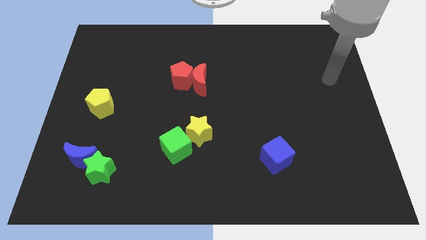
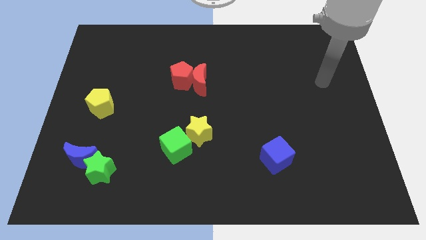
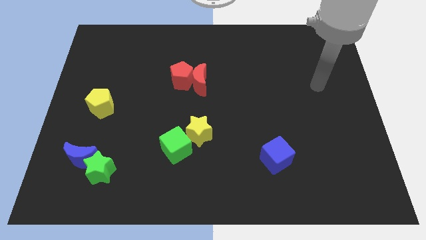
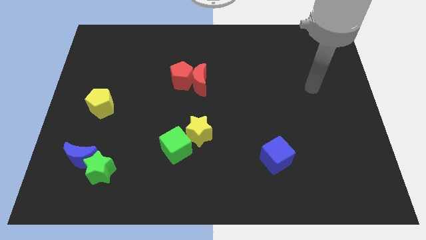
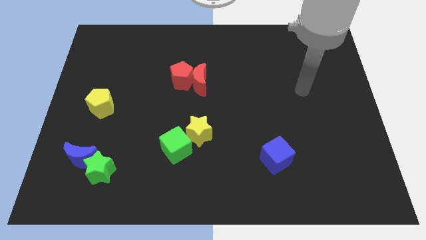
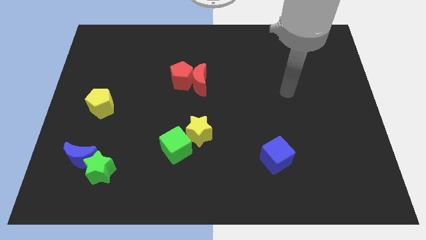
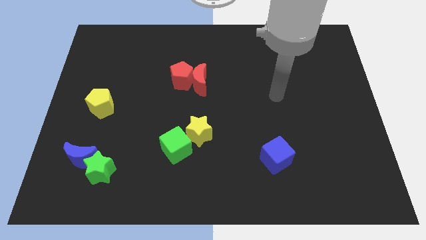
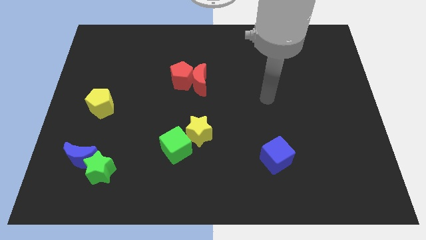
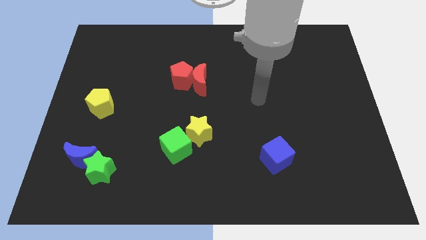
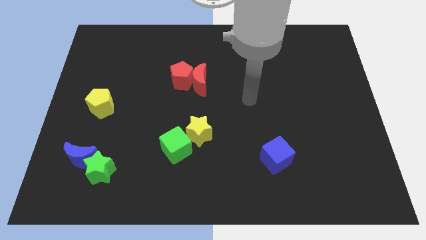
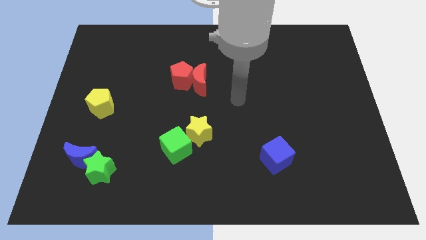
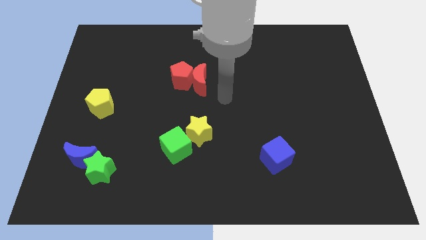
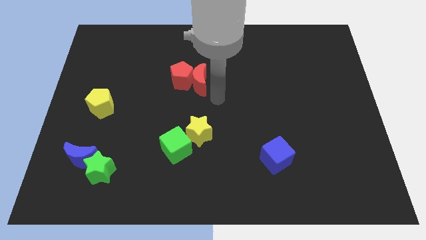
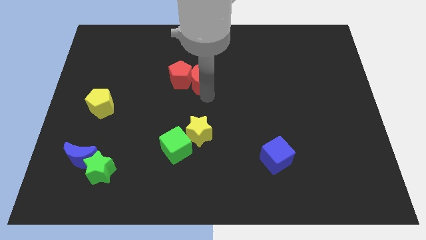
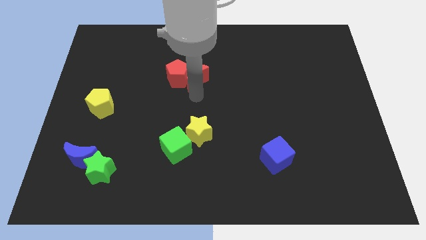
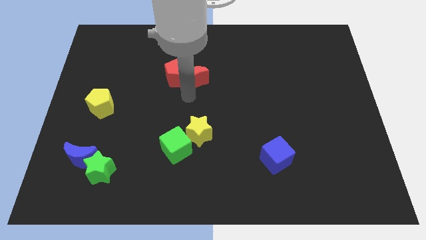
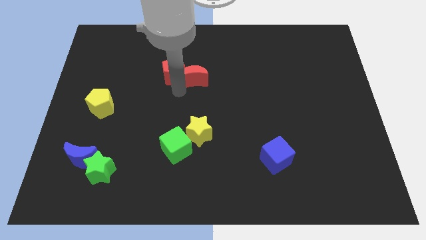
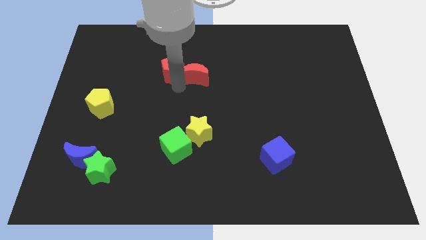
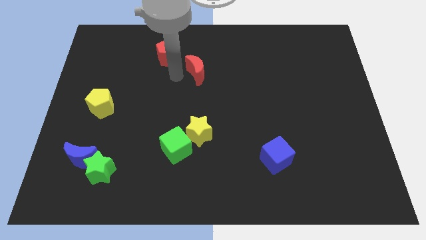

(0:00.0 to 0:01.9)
pull the red moon apart from the red pentagon

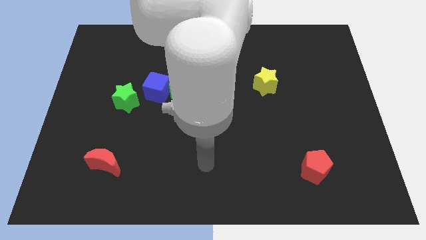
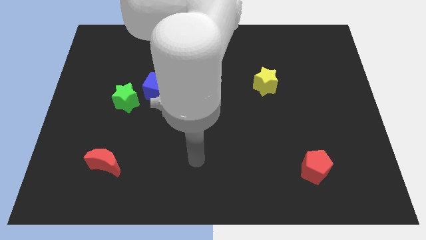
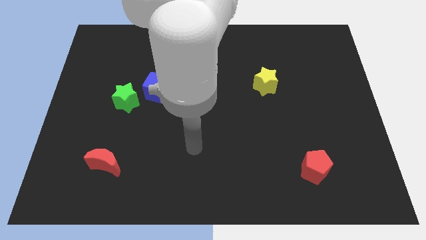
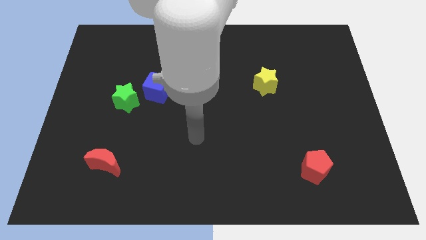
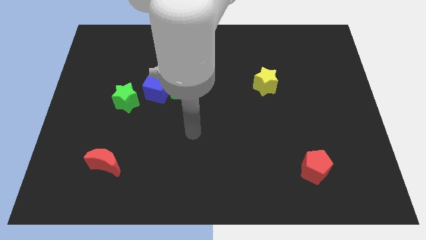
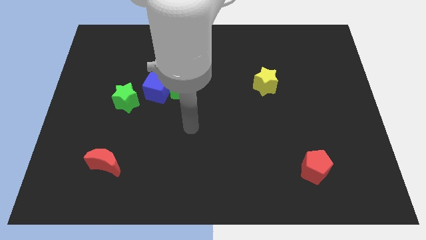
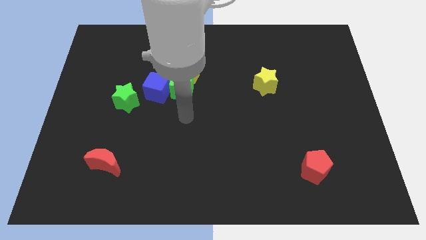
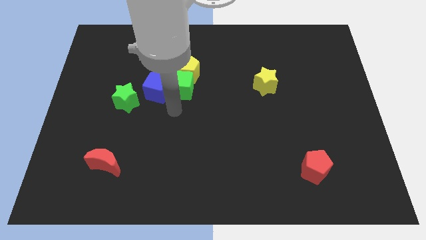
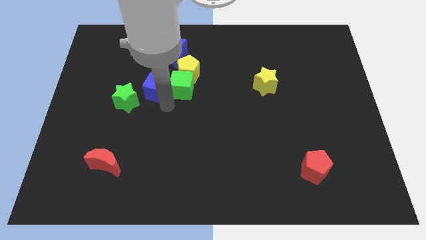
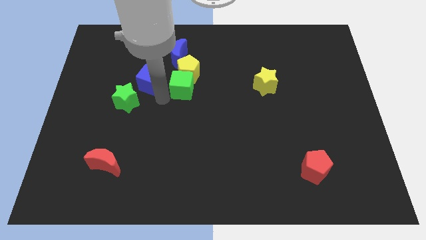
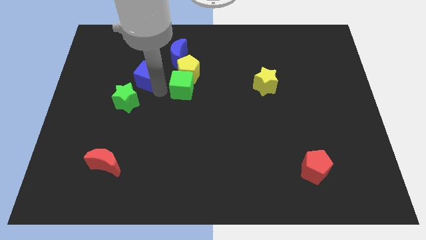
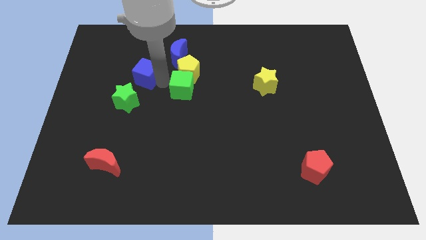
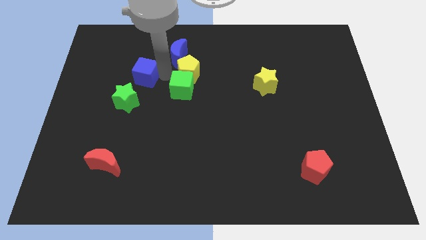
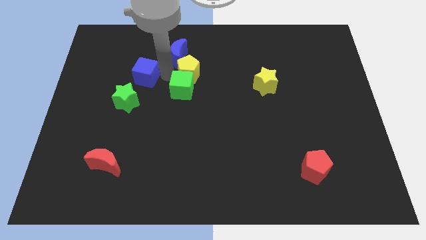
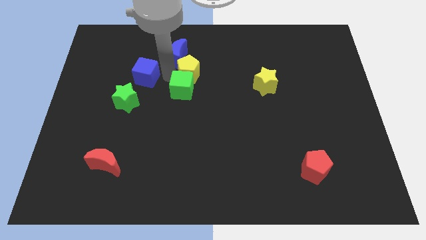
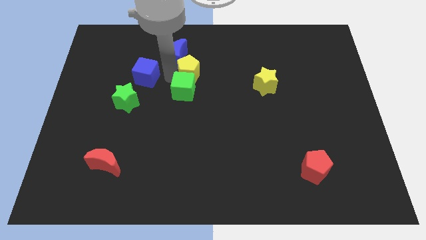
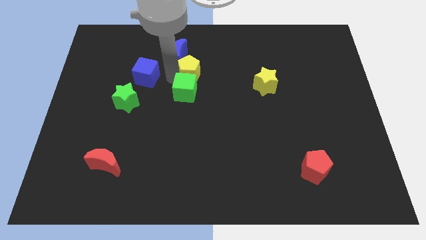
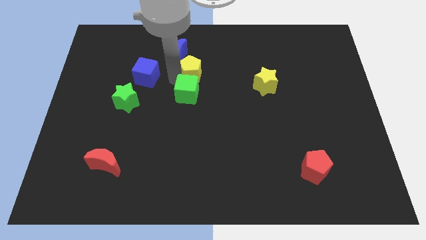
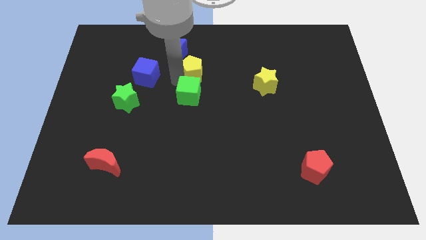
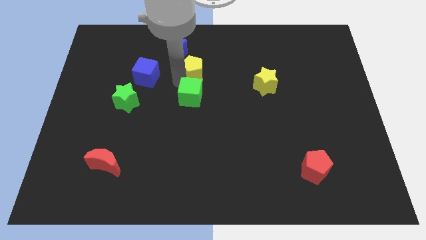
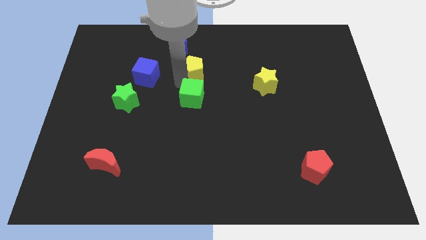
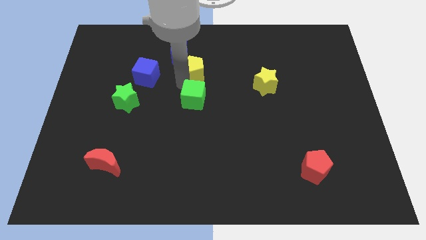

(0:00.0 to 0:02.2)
move the green cube away from the yellow pentagon and blue cube

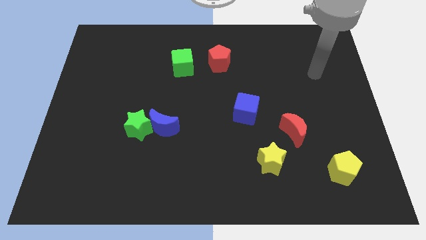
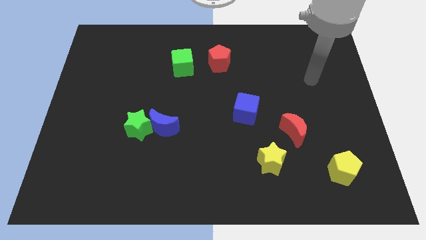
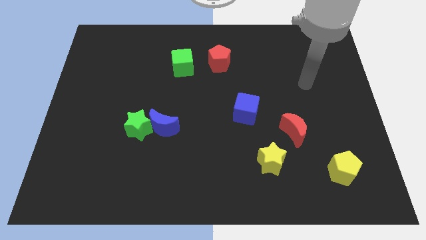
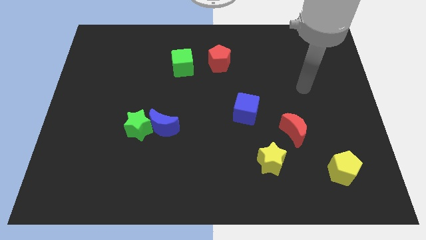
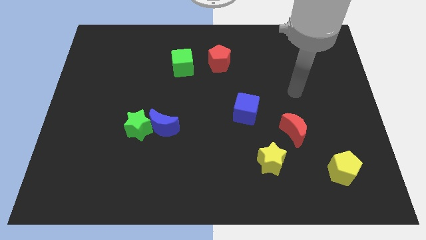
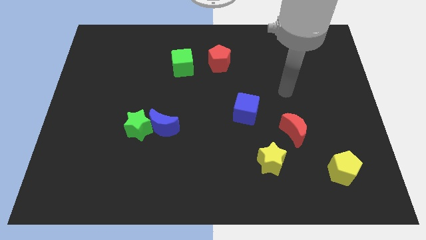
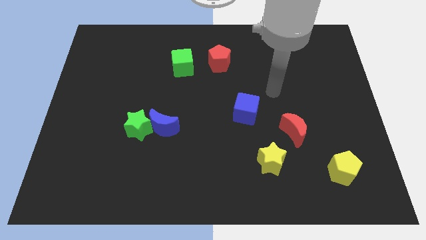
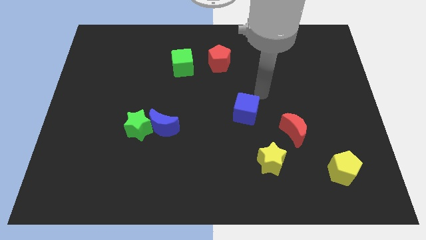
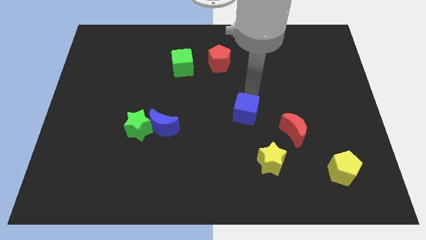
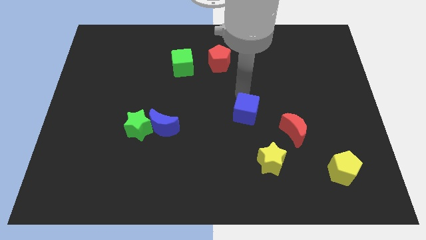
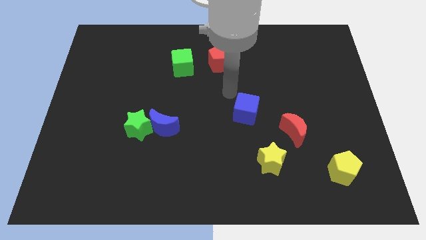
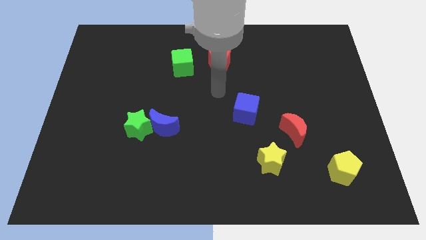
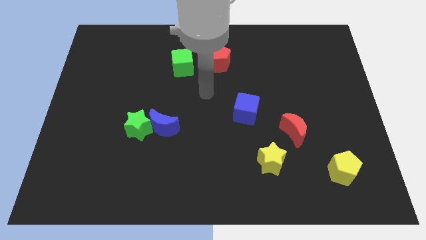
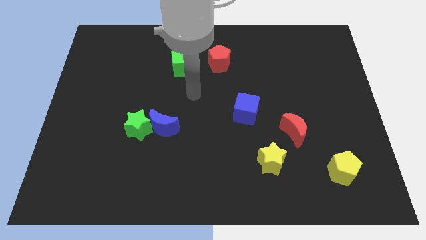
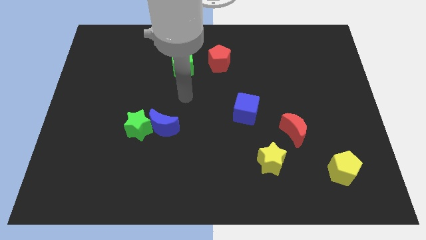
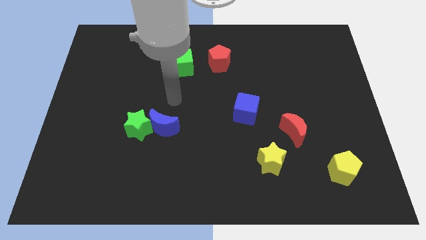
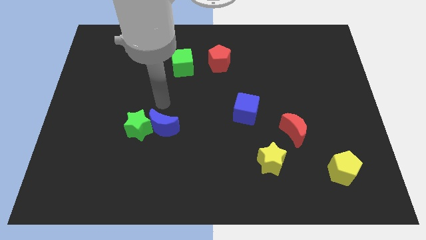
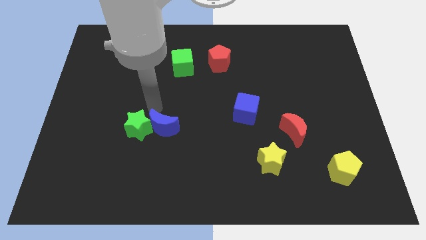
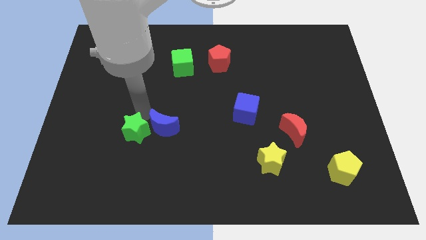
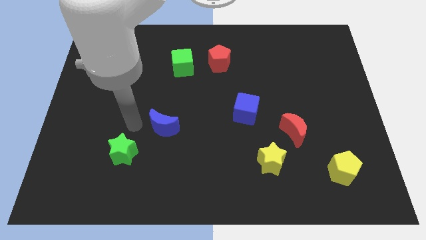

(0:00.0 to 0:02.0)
pull the blue moon apart from the green star

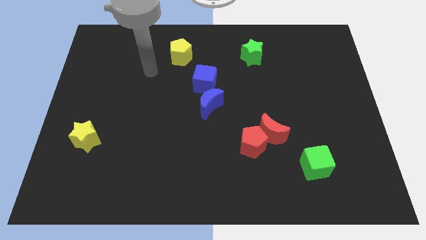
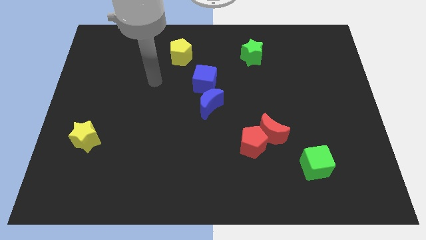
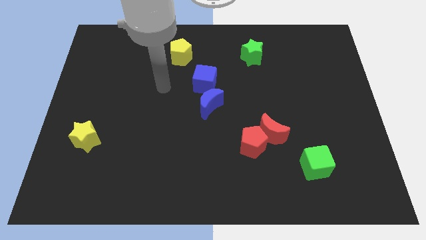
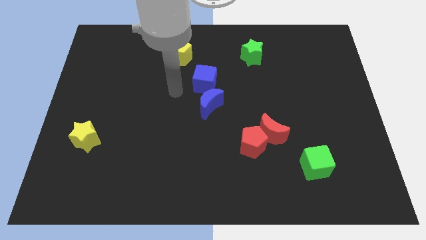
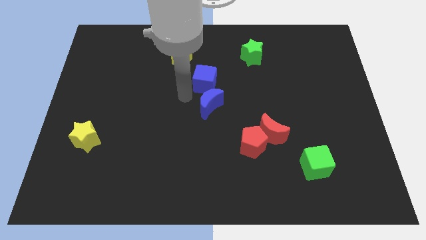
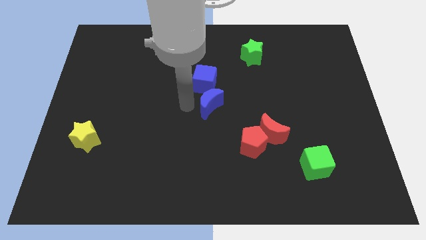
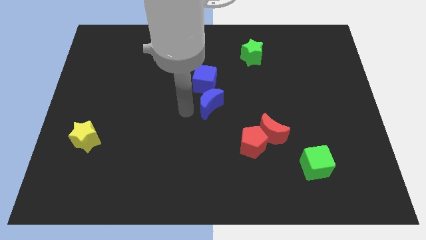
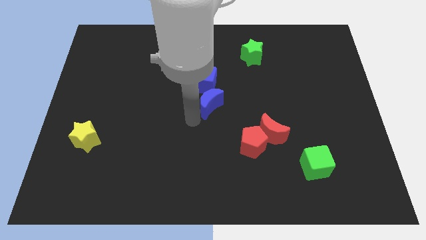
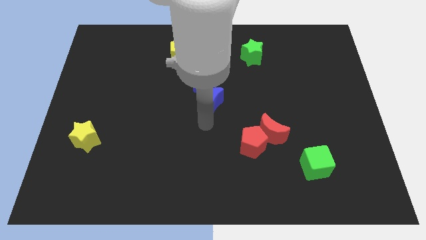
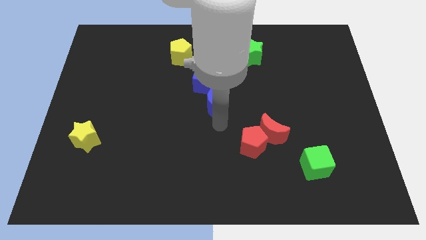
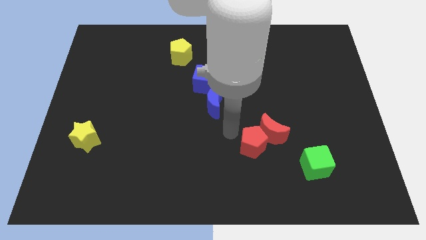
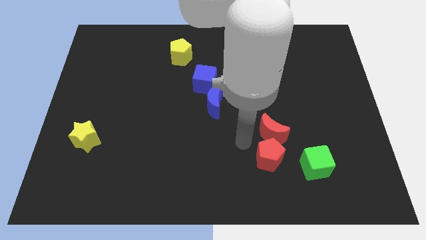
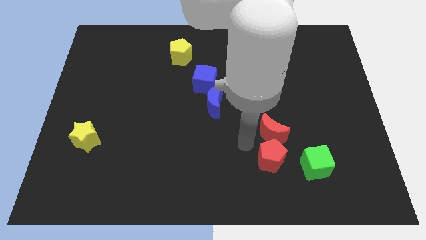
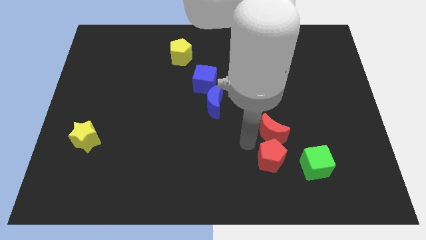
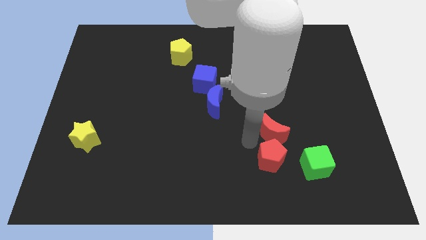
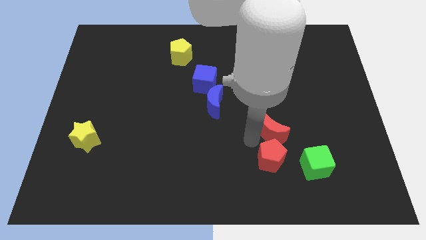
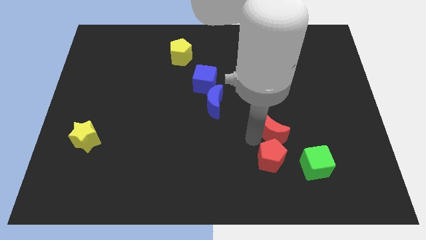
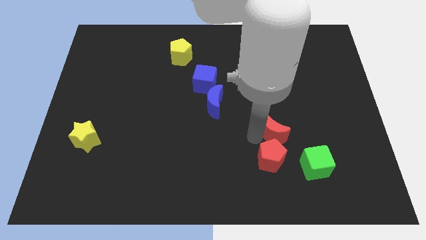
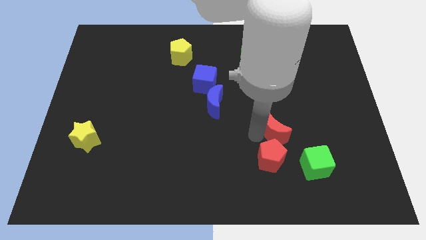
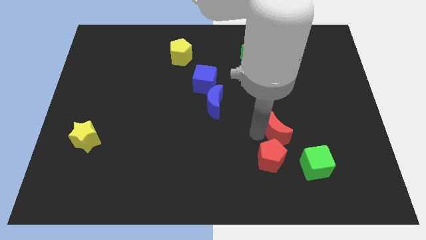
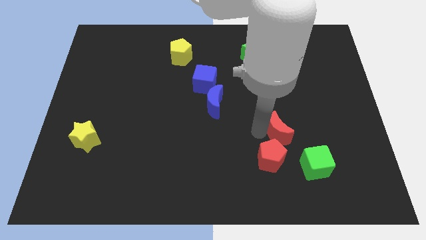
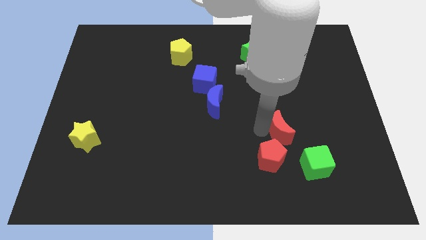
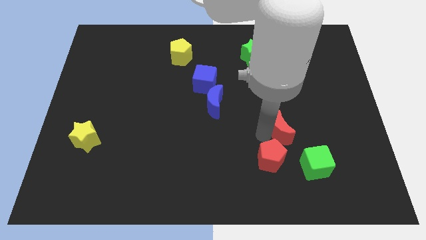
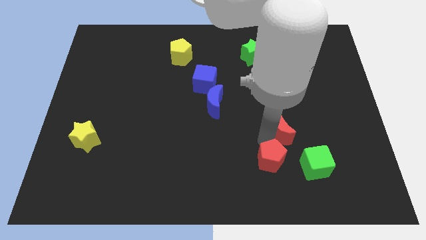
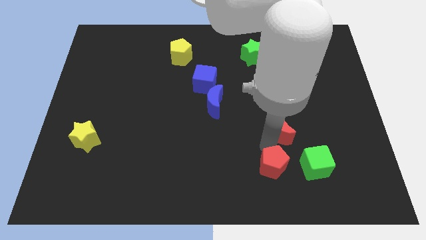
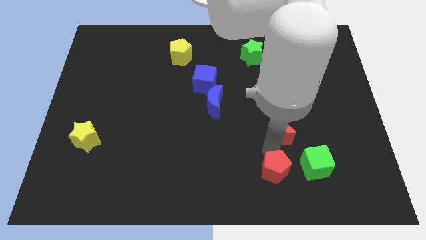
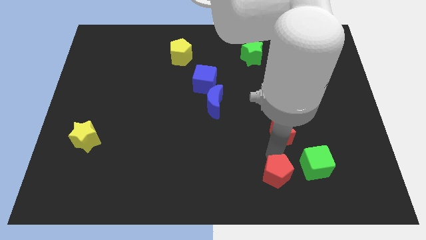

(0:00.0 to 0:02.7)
separate the red moon from the red pentagon

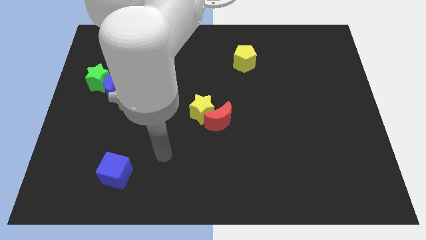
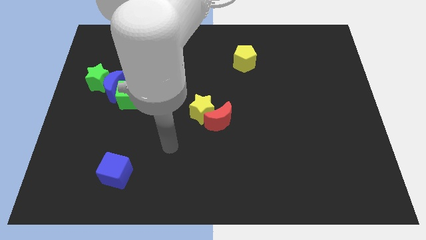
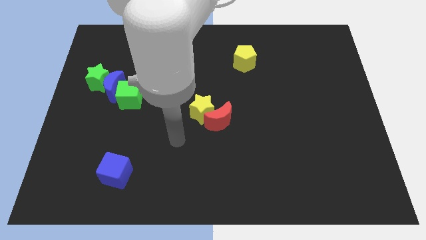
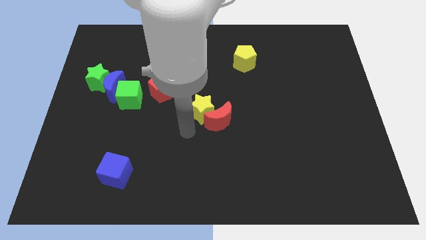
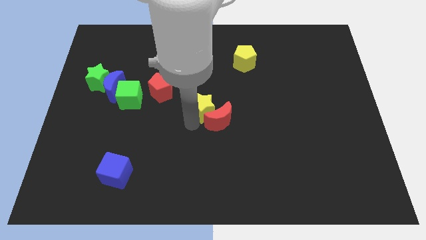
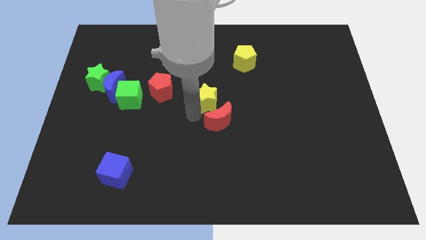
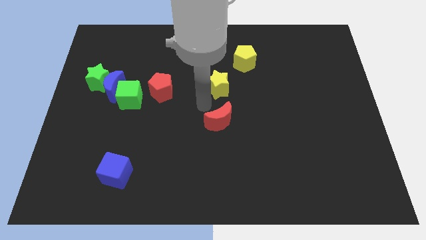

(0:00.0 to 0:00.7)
move the red moon away from the yellow star
